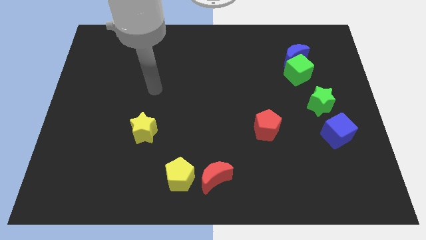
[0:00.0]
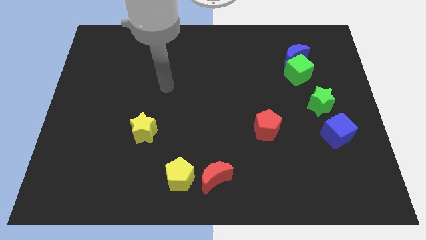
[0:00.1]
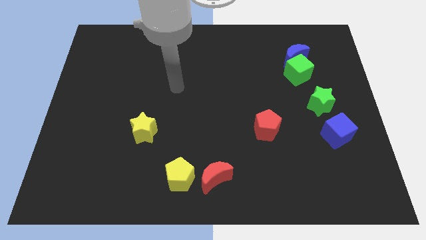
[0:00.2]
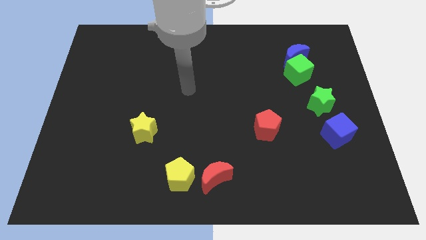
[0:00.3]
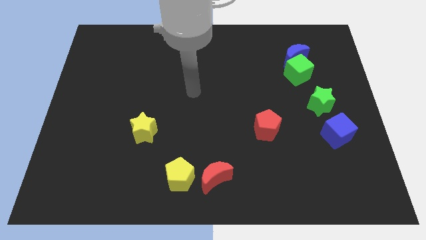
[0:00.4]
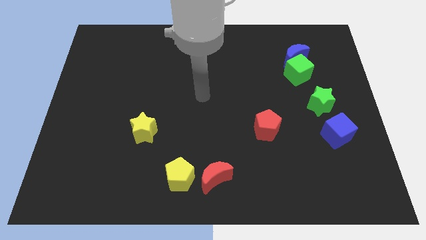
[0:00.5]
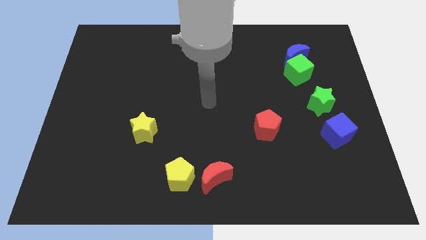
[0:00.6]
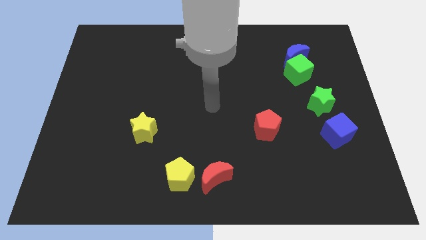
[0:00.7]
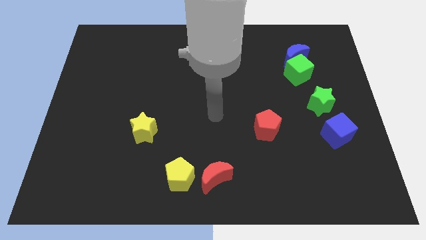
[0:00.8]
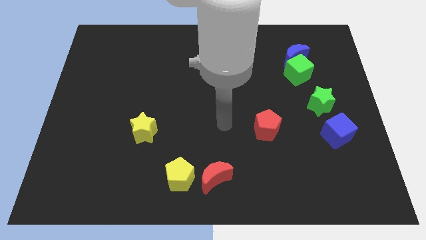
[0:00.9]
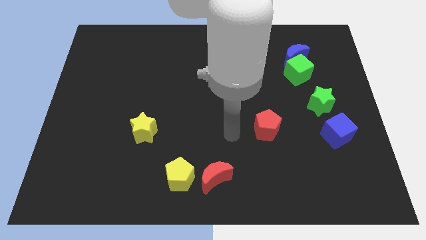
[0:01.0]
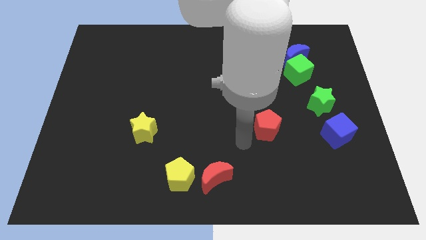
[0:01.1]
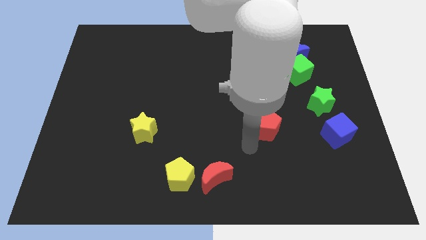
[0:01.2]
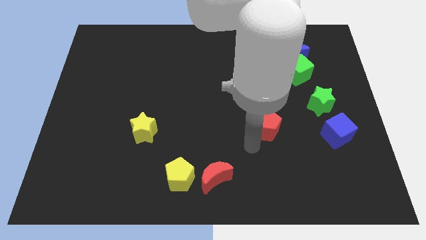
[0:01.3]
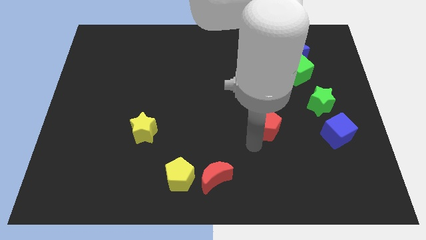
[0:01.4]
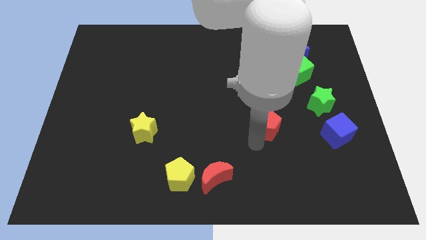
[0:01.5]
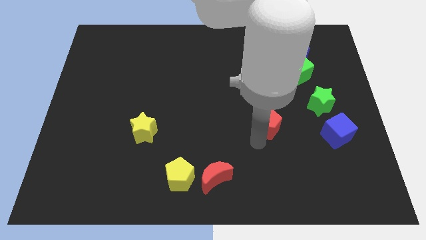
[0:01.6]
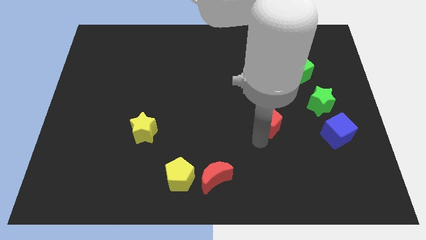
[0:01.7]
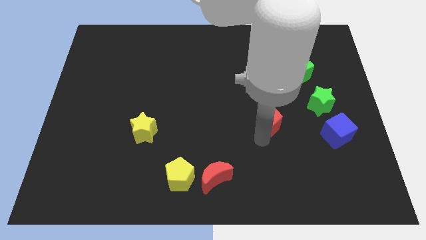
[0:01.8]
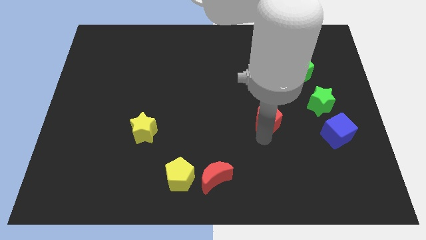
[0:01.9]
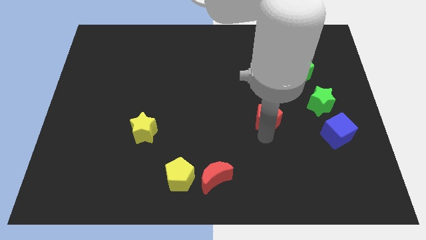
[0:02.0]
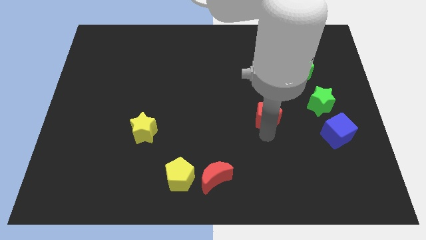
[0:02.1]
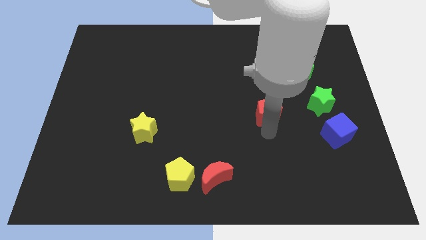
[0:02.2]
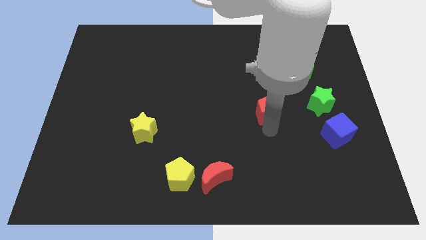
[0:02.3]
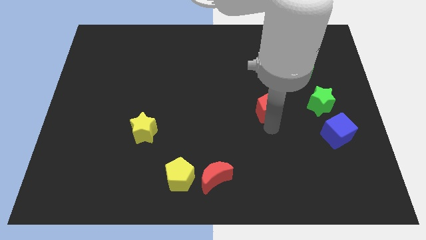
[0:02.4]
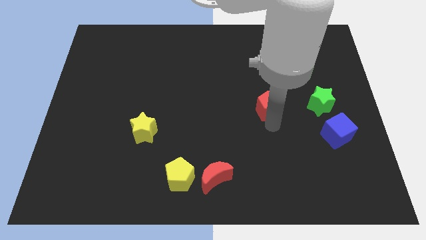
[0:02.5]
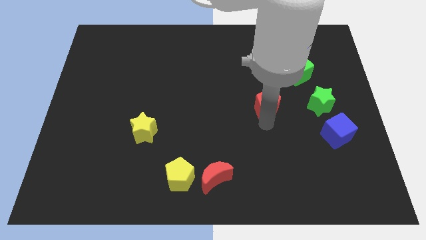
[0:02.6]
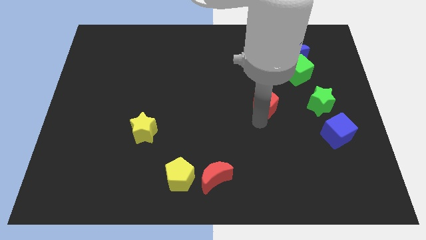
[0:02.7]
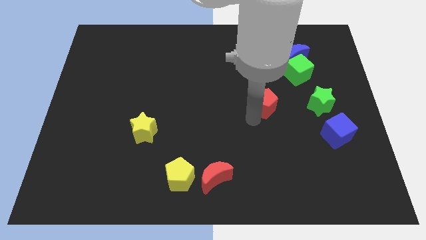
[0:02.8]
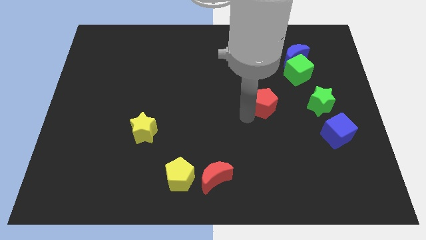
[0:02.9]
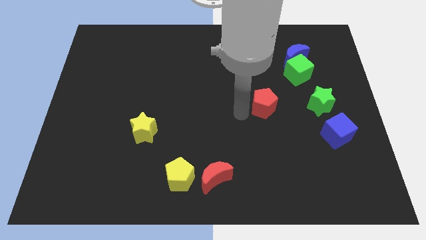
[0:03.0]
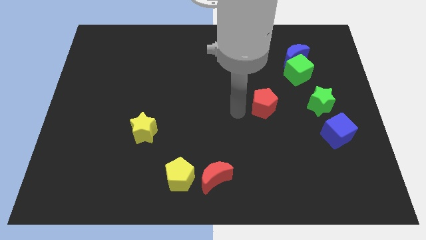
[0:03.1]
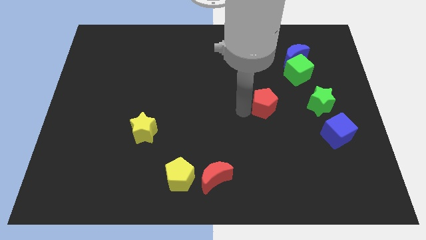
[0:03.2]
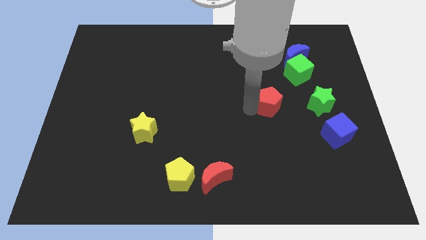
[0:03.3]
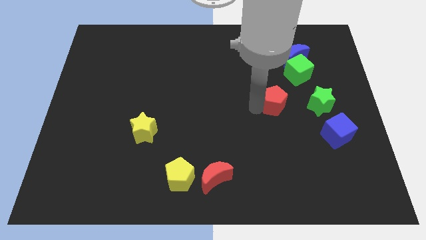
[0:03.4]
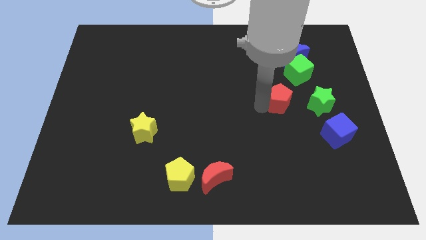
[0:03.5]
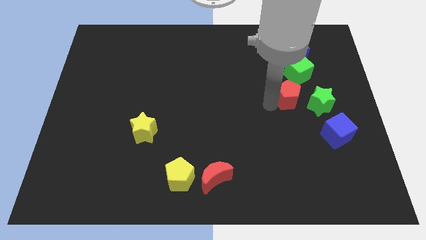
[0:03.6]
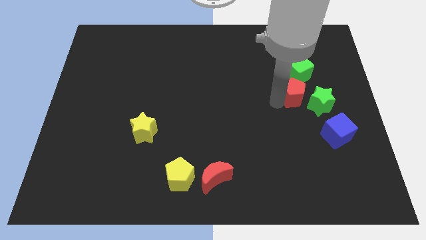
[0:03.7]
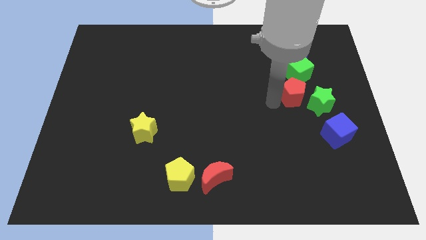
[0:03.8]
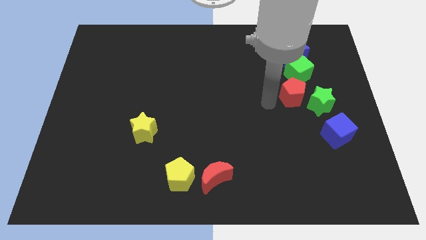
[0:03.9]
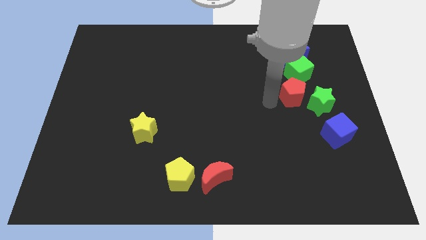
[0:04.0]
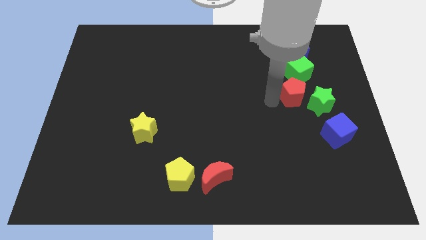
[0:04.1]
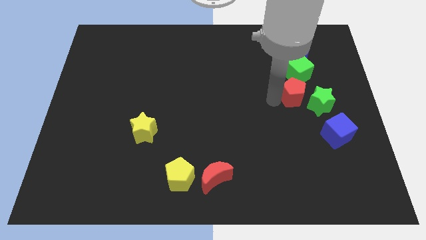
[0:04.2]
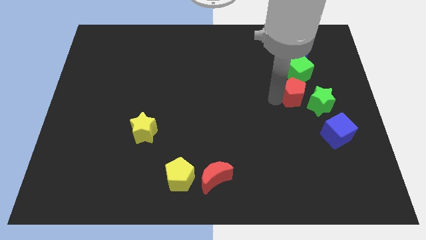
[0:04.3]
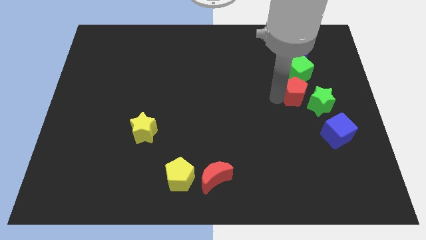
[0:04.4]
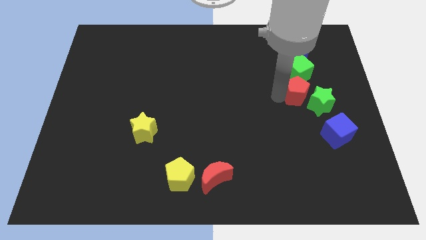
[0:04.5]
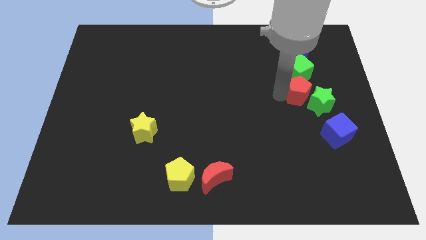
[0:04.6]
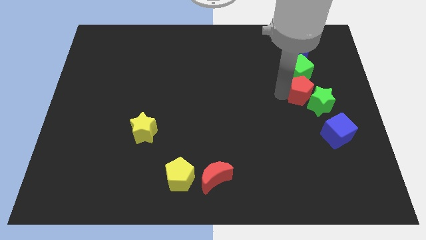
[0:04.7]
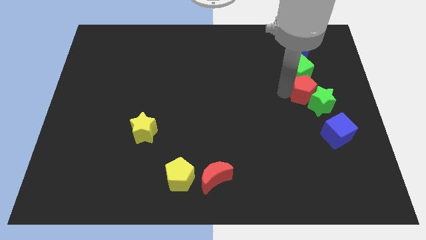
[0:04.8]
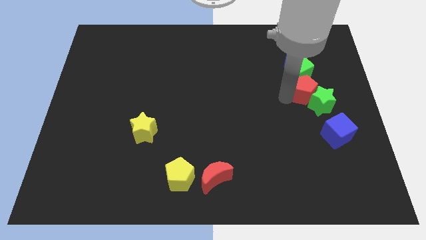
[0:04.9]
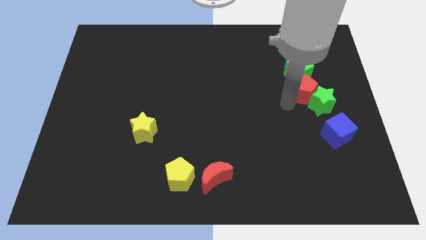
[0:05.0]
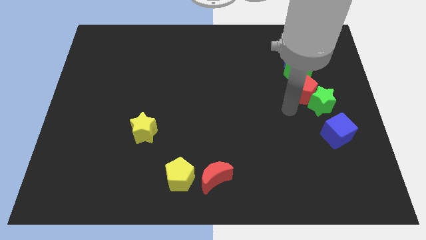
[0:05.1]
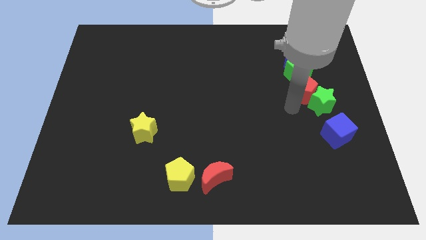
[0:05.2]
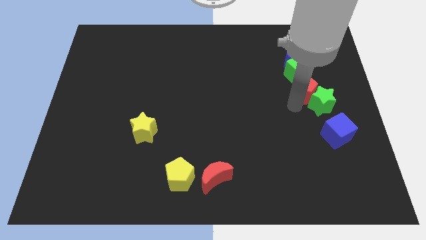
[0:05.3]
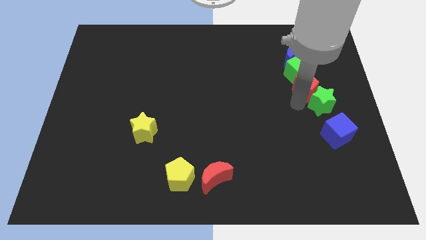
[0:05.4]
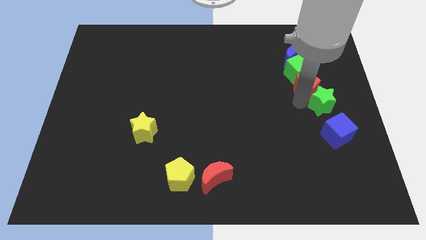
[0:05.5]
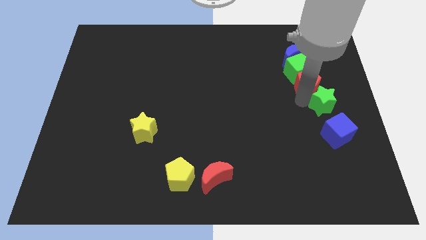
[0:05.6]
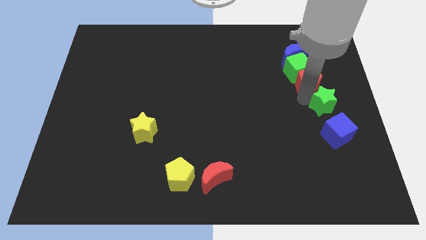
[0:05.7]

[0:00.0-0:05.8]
slide the red pentagon to the bottom right of the blue moon

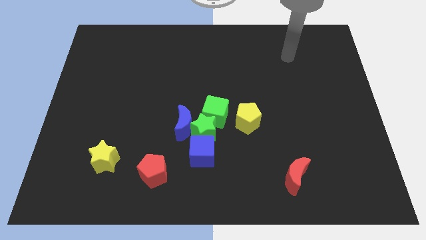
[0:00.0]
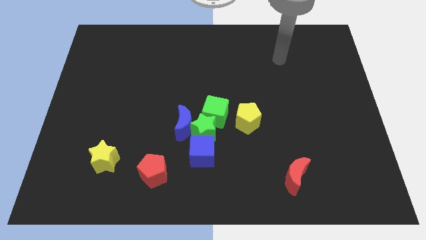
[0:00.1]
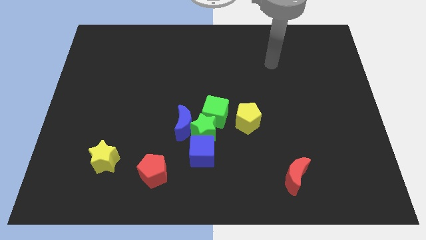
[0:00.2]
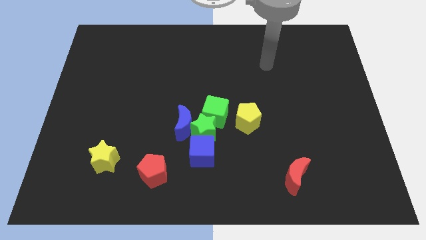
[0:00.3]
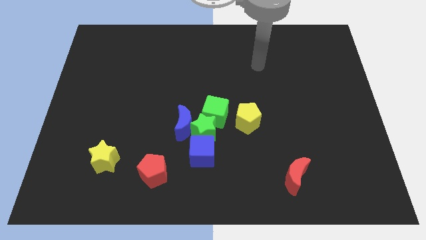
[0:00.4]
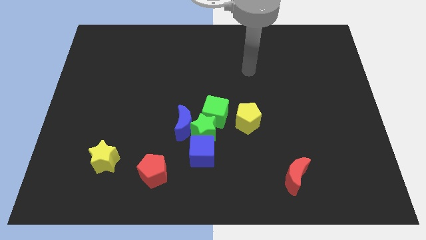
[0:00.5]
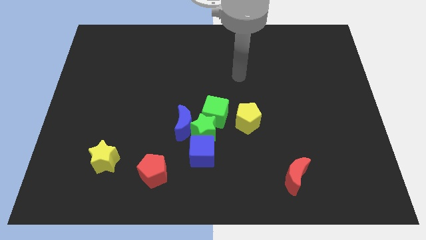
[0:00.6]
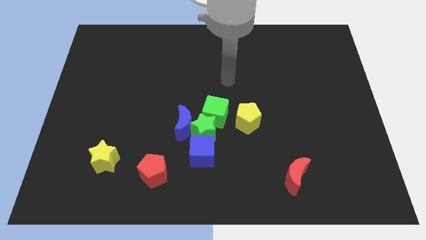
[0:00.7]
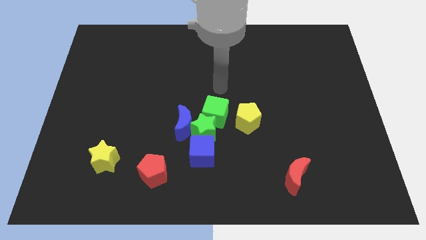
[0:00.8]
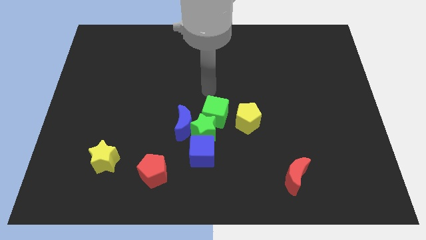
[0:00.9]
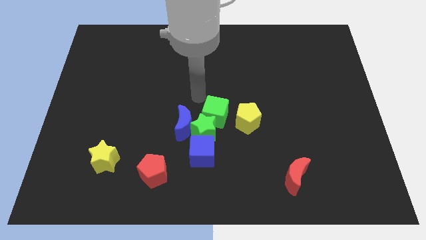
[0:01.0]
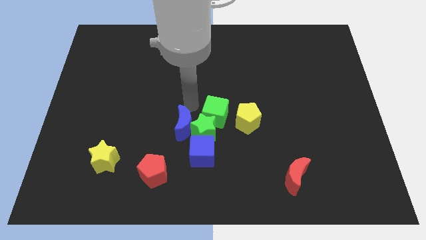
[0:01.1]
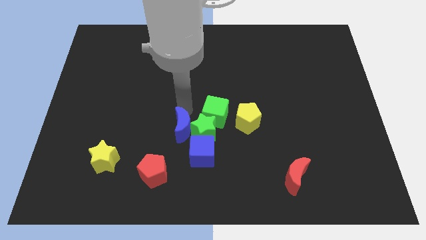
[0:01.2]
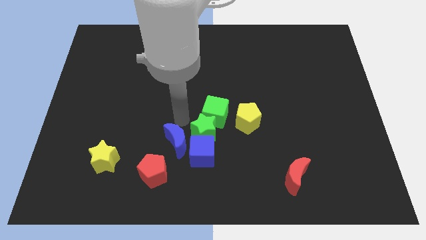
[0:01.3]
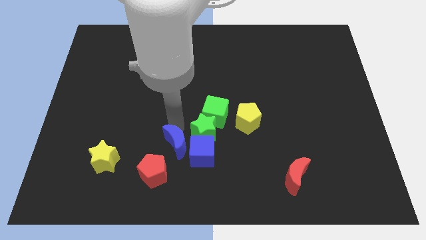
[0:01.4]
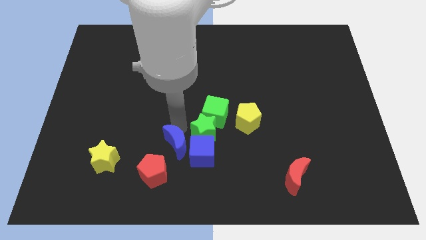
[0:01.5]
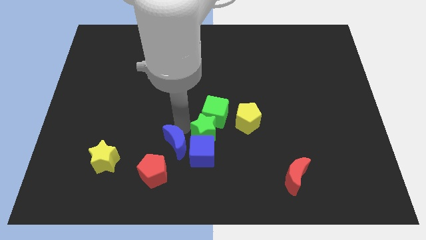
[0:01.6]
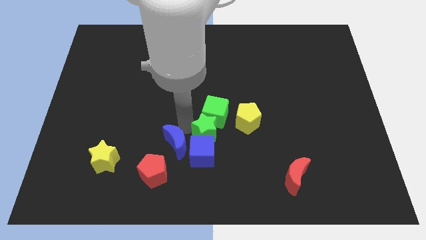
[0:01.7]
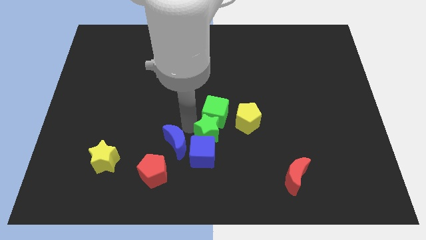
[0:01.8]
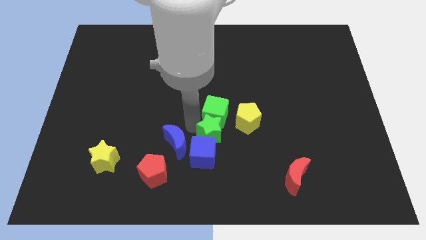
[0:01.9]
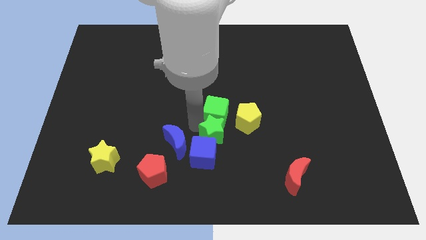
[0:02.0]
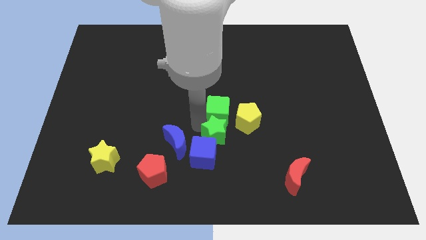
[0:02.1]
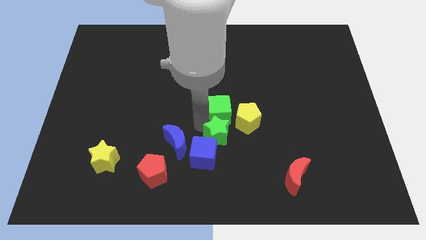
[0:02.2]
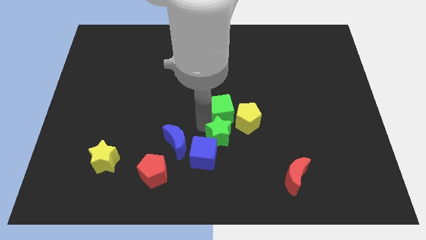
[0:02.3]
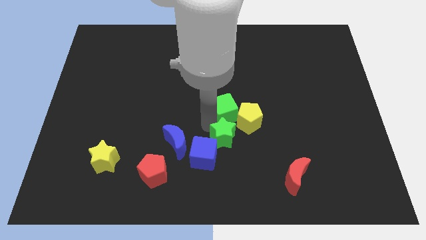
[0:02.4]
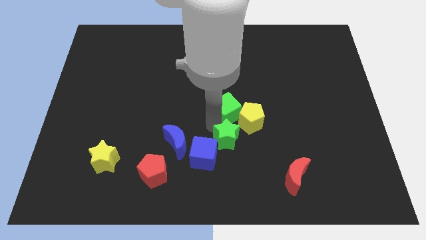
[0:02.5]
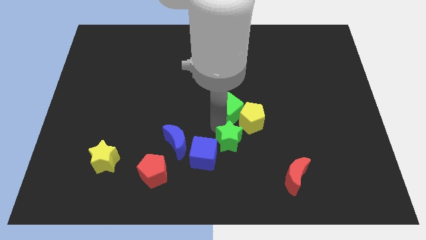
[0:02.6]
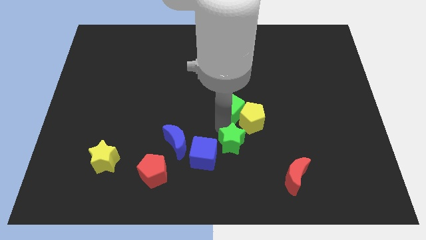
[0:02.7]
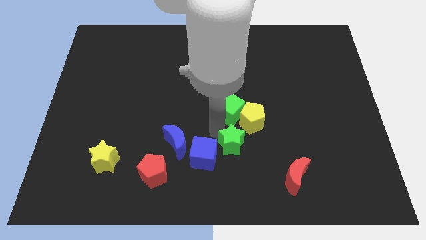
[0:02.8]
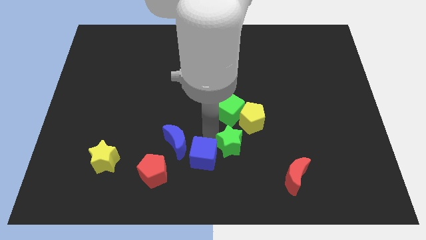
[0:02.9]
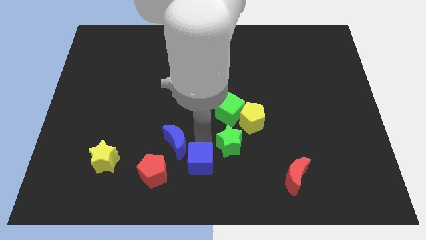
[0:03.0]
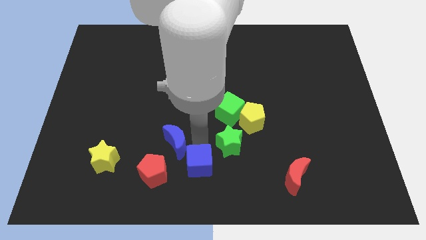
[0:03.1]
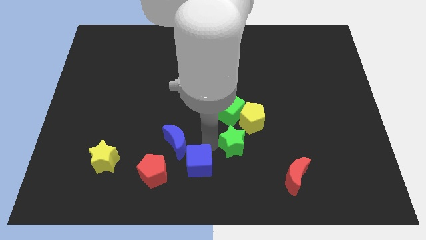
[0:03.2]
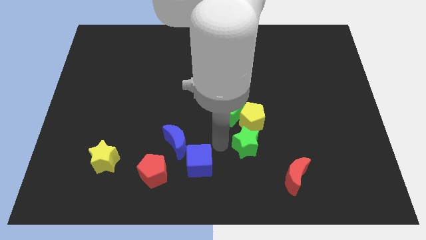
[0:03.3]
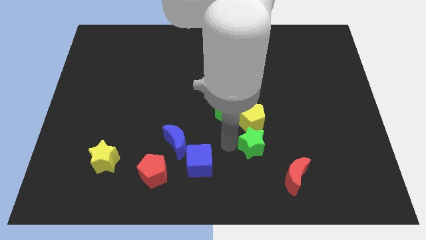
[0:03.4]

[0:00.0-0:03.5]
move the green star to the bottom right side of the yellow pentagon
